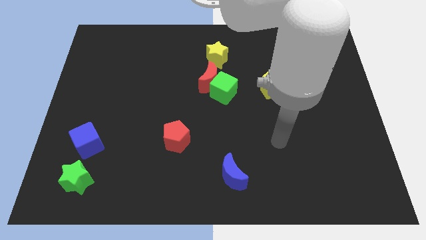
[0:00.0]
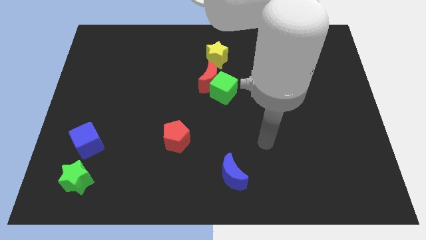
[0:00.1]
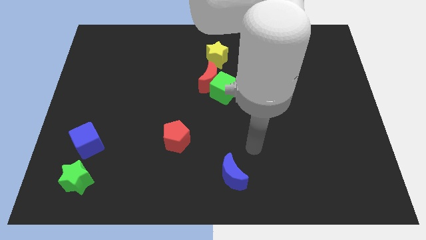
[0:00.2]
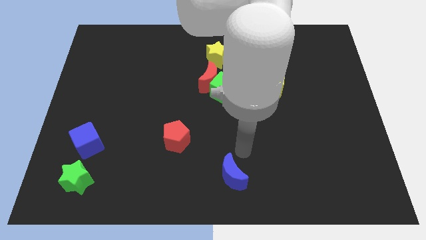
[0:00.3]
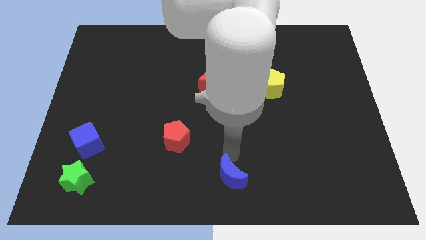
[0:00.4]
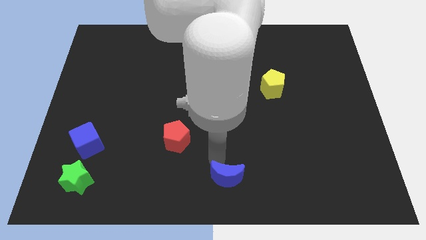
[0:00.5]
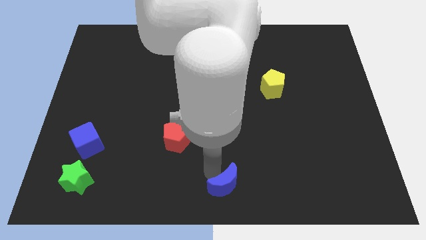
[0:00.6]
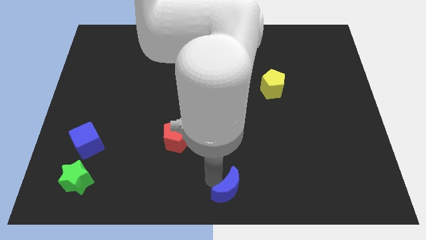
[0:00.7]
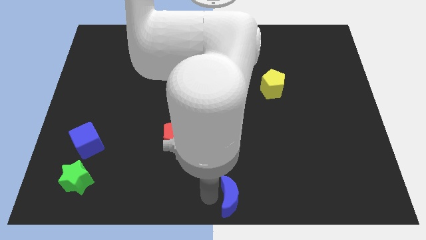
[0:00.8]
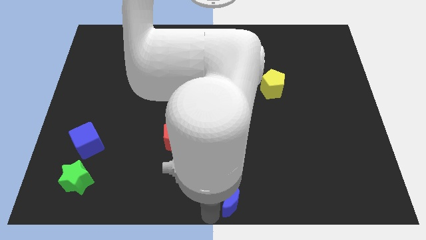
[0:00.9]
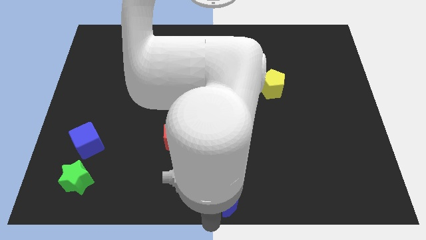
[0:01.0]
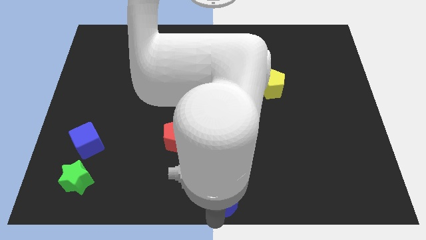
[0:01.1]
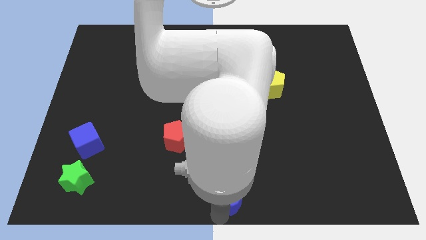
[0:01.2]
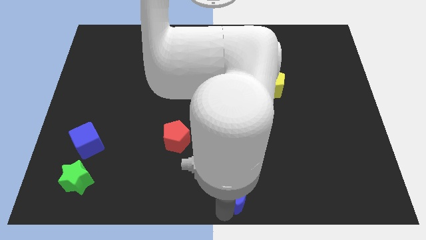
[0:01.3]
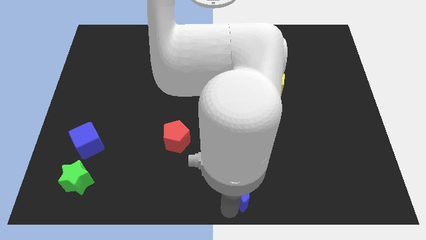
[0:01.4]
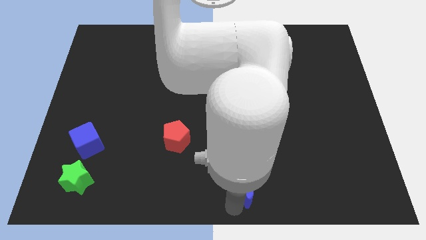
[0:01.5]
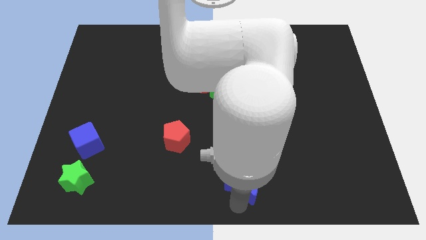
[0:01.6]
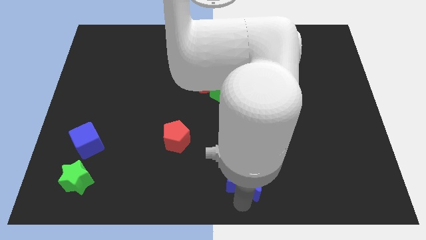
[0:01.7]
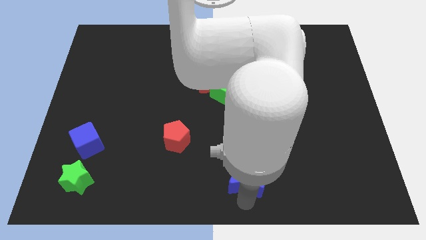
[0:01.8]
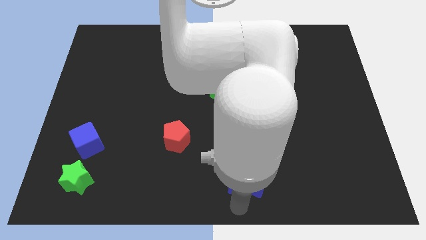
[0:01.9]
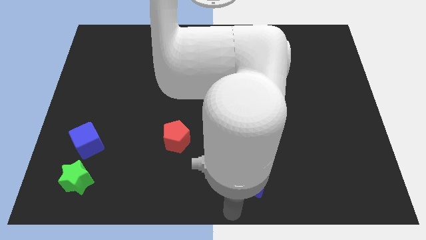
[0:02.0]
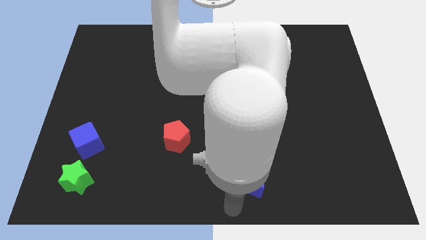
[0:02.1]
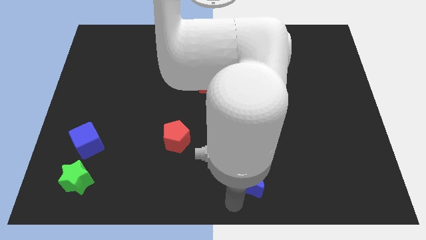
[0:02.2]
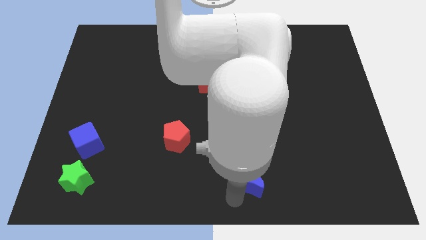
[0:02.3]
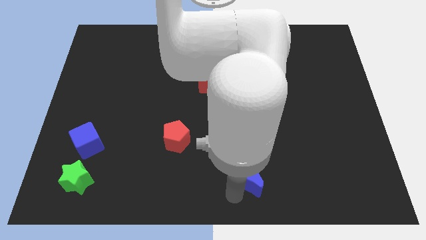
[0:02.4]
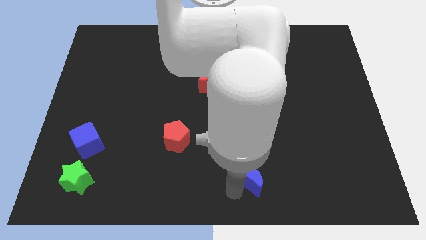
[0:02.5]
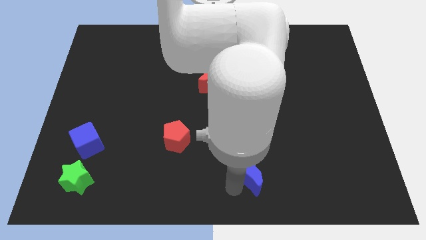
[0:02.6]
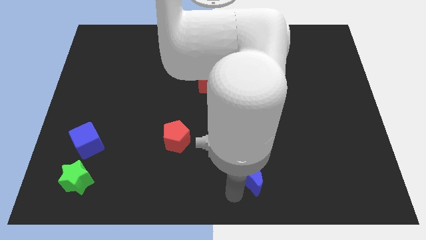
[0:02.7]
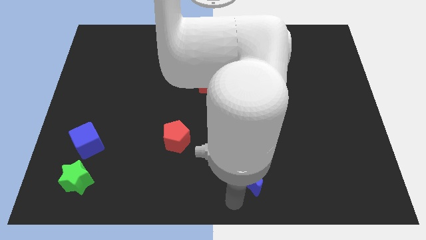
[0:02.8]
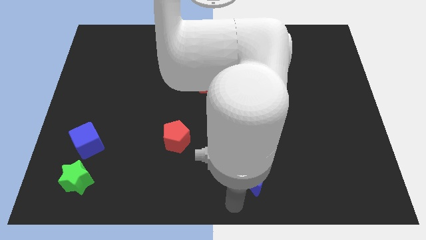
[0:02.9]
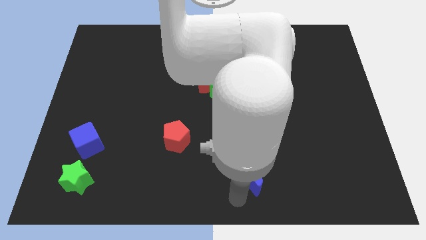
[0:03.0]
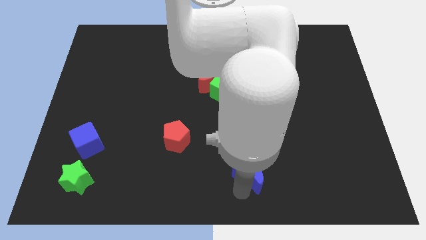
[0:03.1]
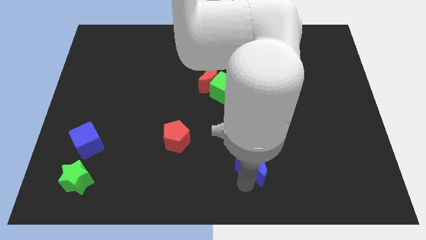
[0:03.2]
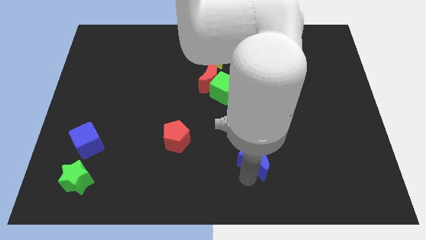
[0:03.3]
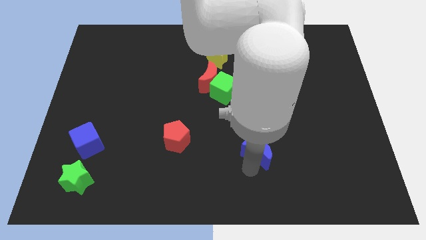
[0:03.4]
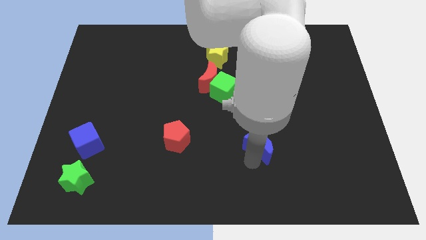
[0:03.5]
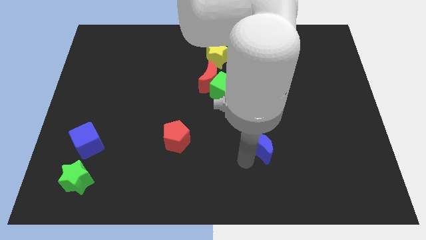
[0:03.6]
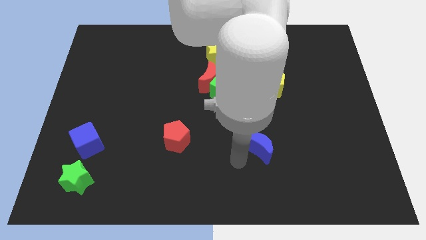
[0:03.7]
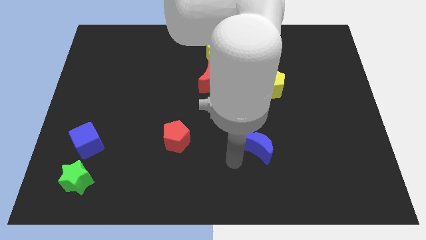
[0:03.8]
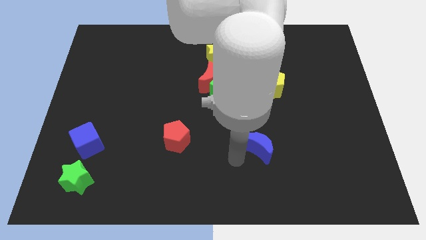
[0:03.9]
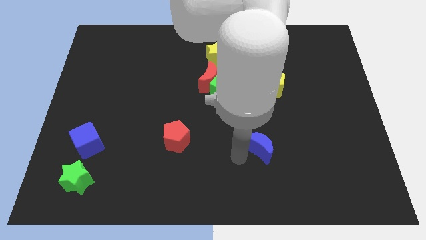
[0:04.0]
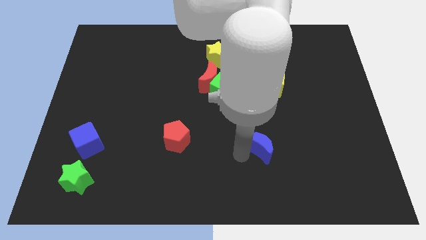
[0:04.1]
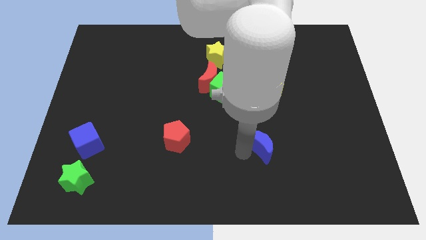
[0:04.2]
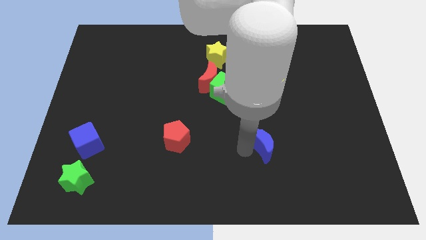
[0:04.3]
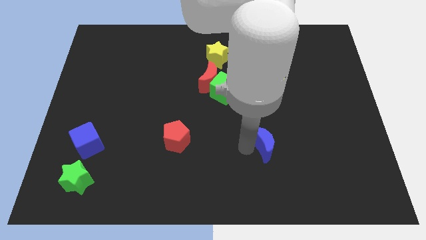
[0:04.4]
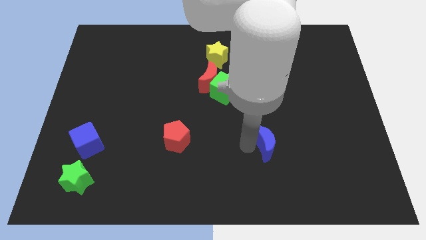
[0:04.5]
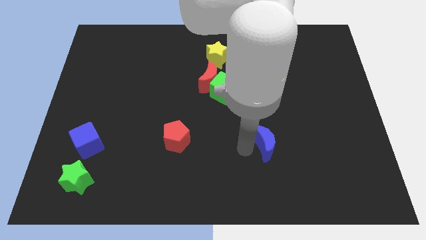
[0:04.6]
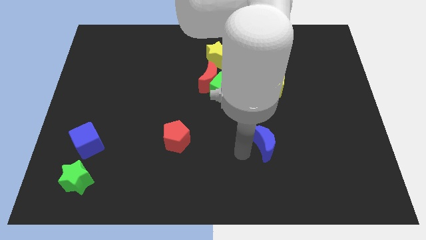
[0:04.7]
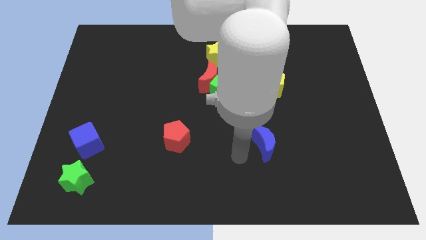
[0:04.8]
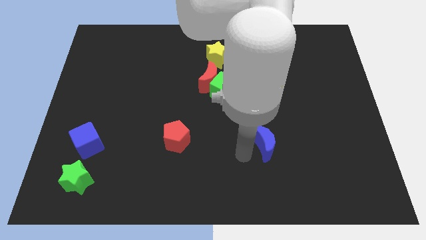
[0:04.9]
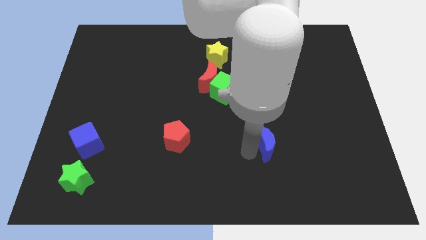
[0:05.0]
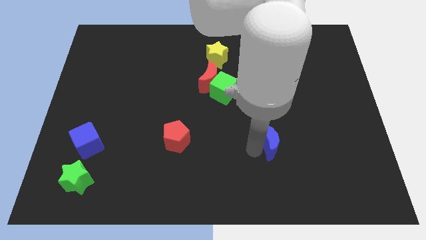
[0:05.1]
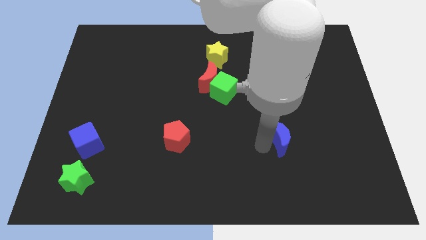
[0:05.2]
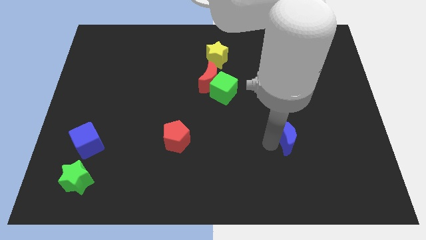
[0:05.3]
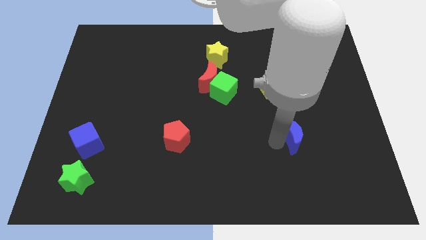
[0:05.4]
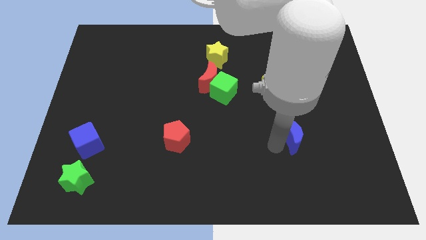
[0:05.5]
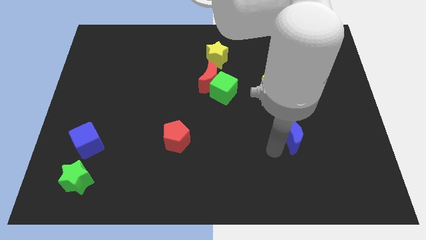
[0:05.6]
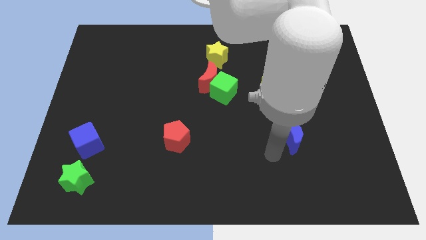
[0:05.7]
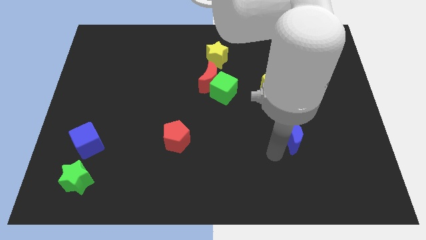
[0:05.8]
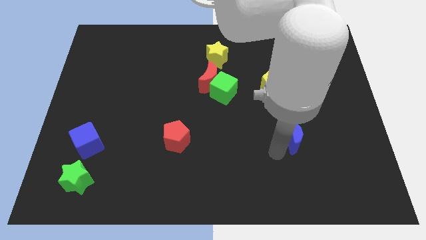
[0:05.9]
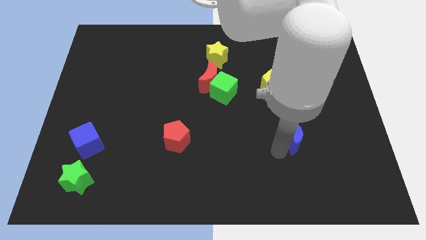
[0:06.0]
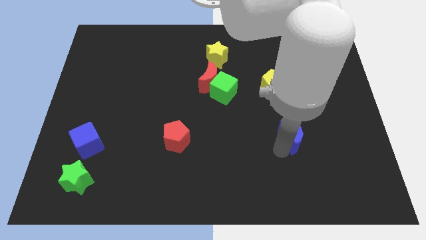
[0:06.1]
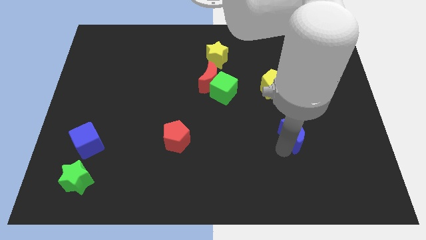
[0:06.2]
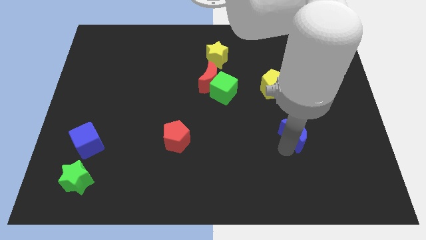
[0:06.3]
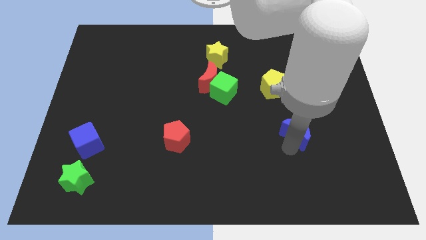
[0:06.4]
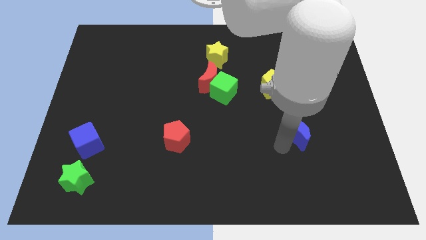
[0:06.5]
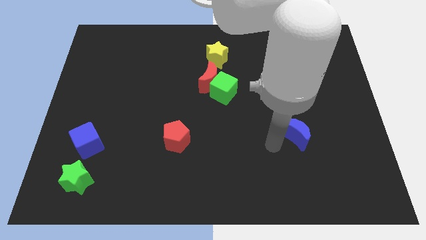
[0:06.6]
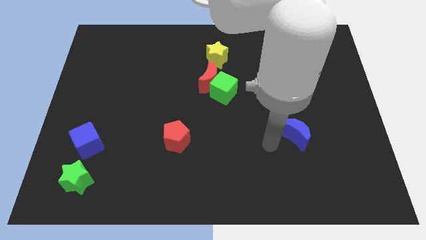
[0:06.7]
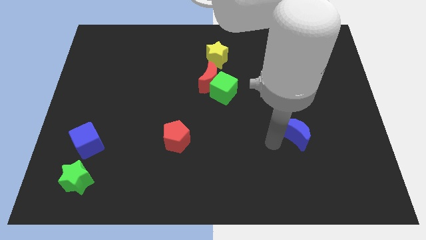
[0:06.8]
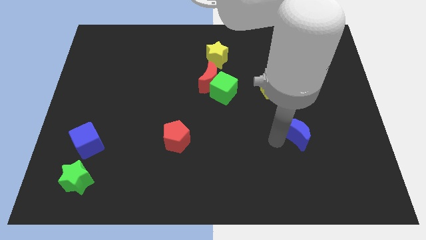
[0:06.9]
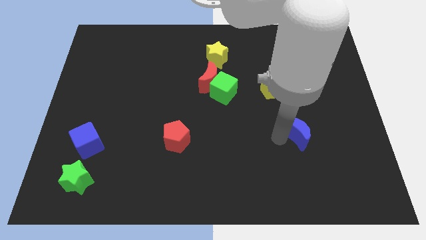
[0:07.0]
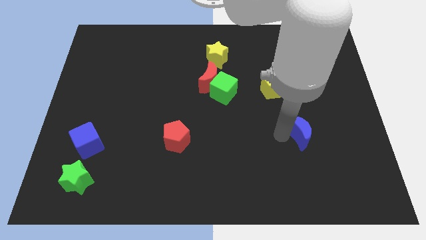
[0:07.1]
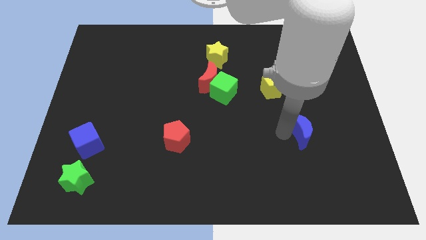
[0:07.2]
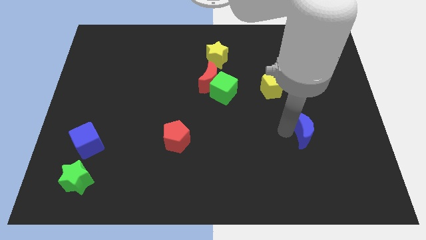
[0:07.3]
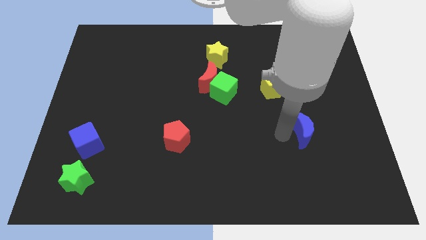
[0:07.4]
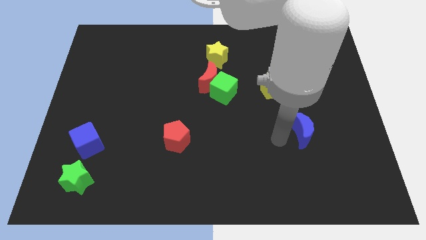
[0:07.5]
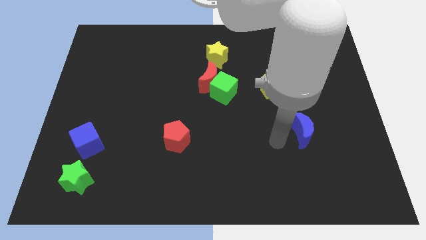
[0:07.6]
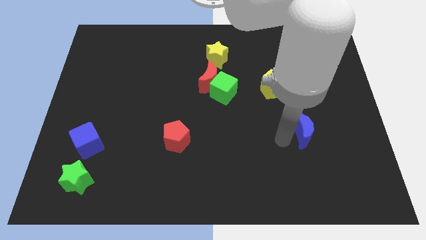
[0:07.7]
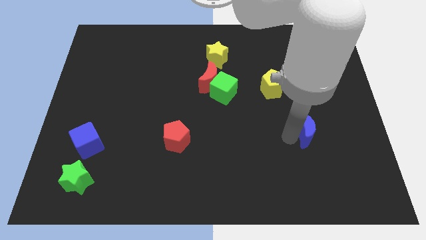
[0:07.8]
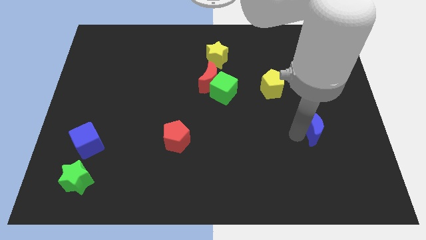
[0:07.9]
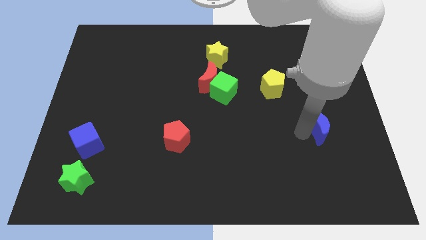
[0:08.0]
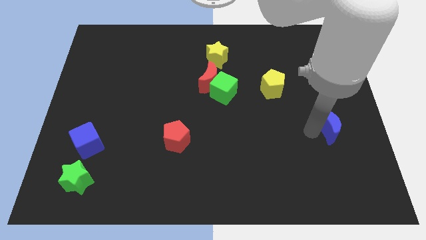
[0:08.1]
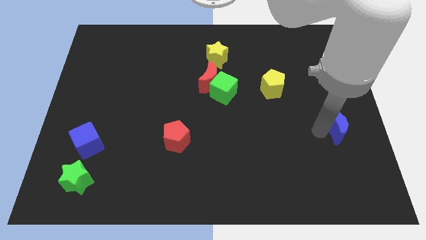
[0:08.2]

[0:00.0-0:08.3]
put the blue moon to the right side of the board
